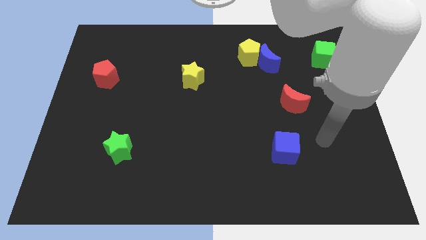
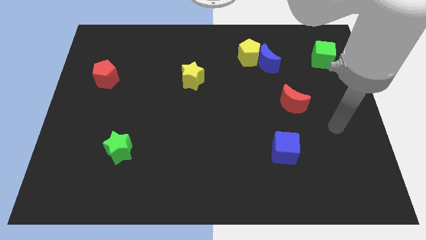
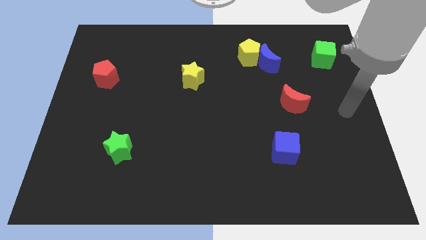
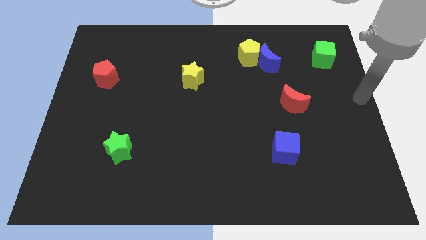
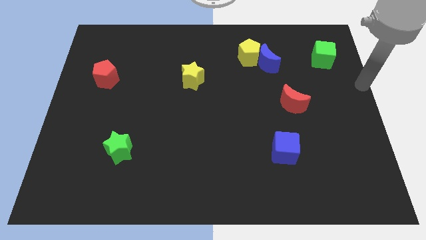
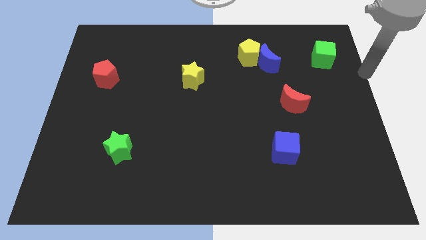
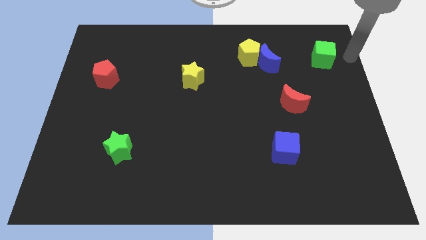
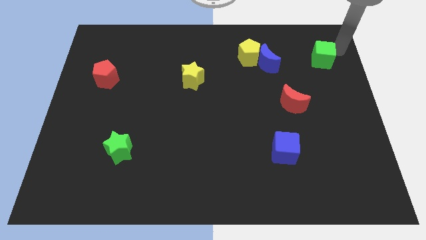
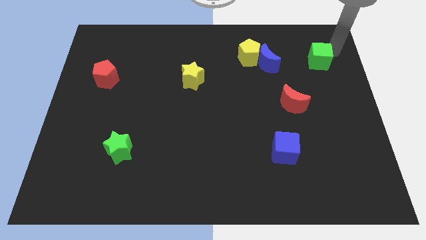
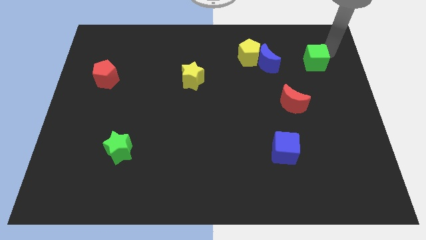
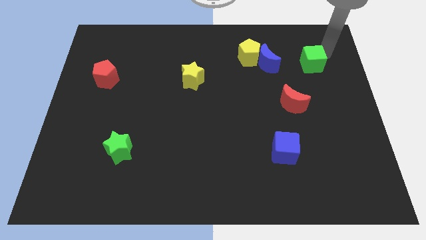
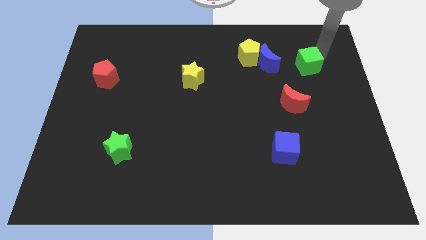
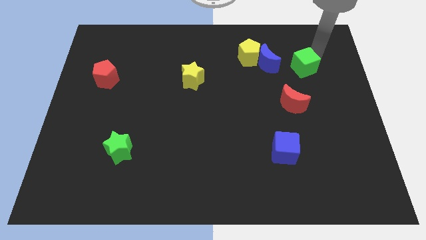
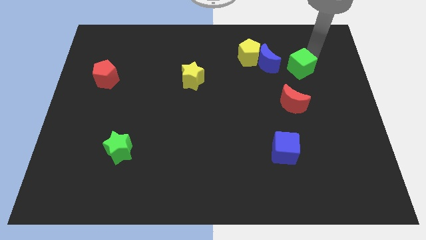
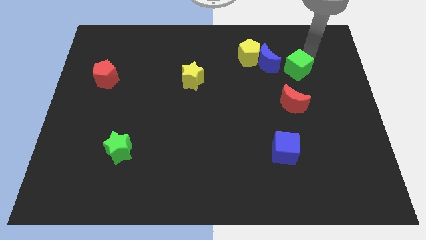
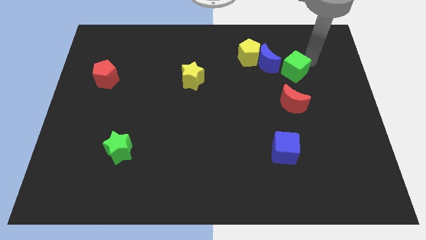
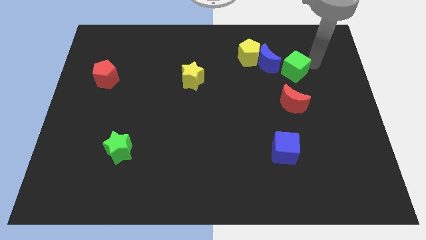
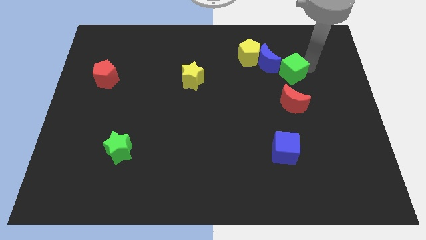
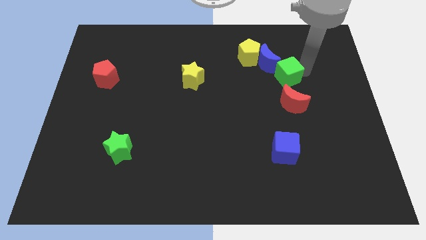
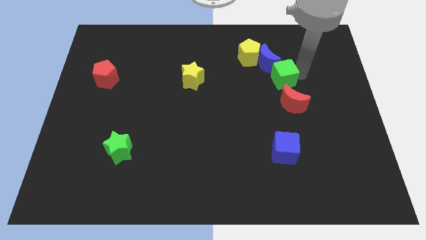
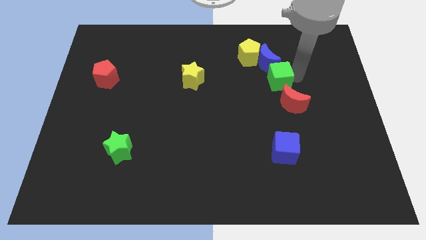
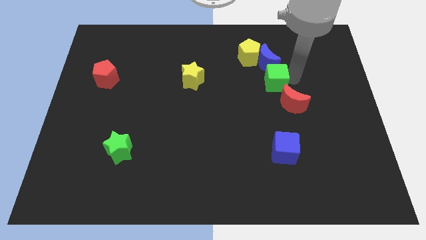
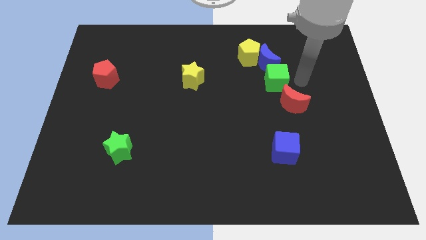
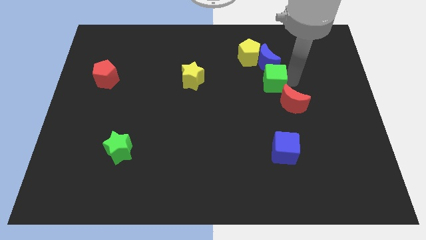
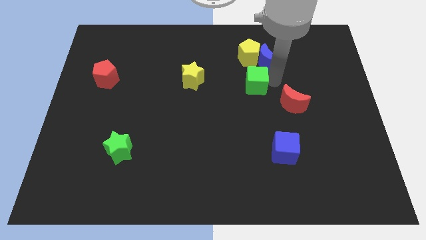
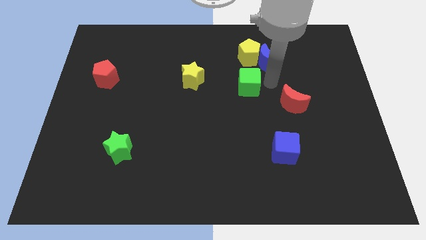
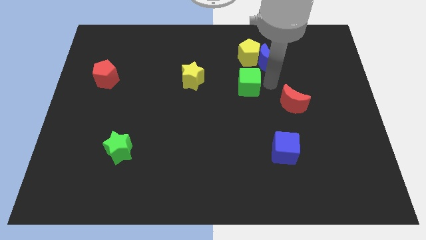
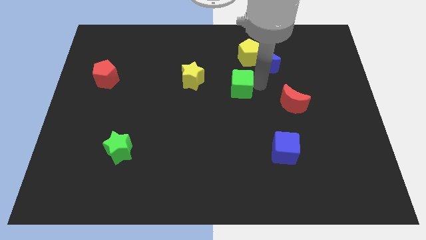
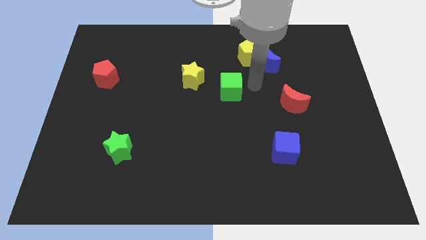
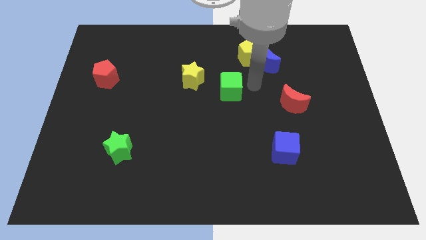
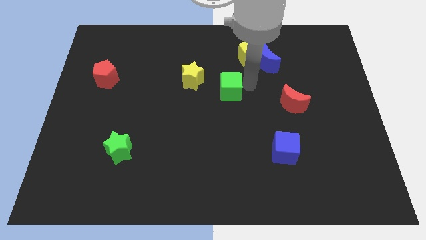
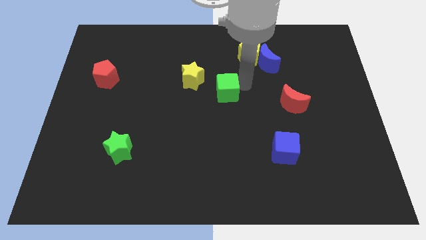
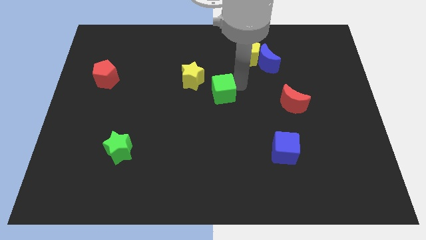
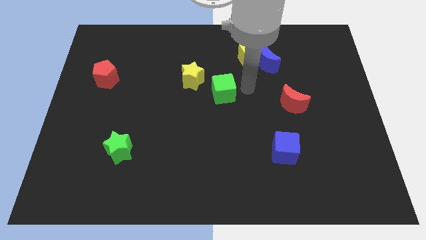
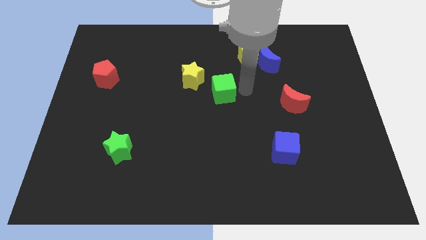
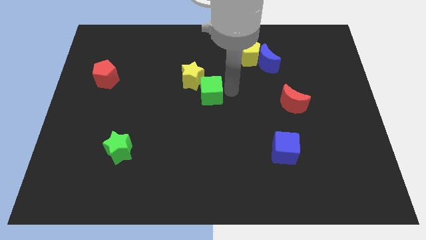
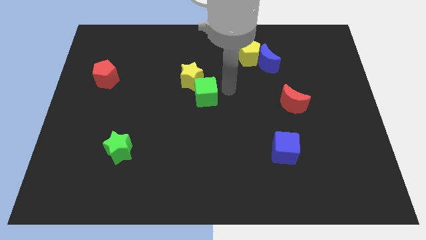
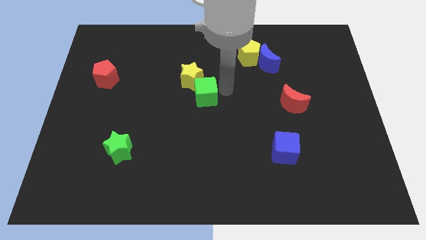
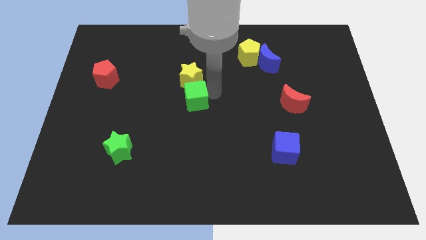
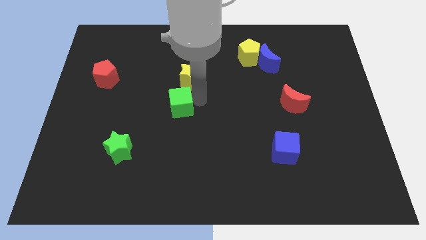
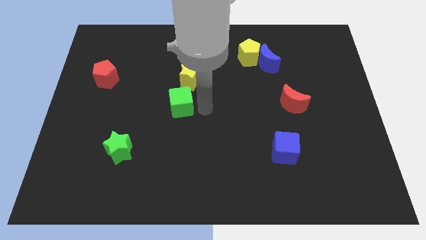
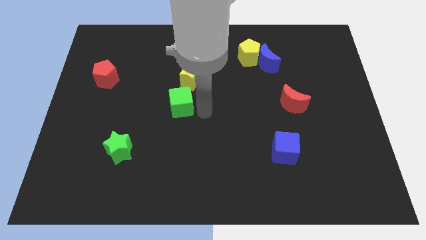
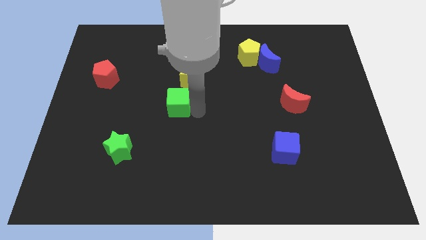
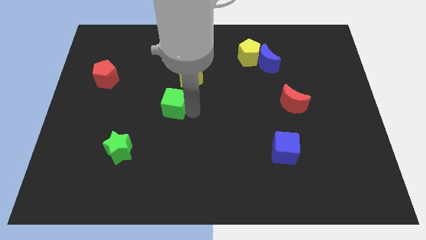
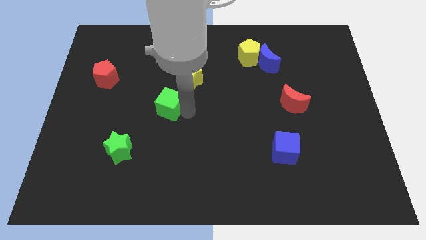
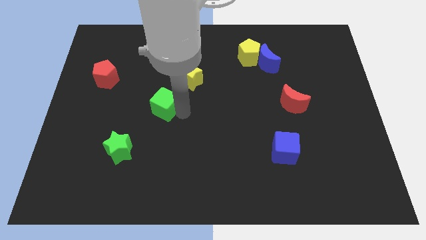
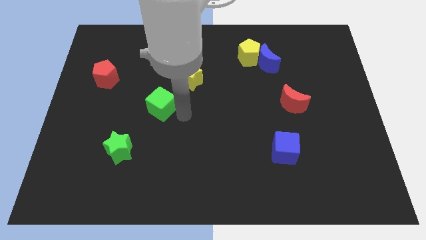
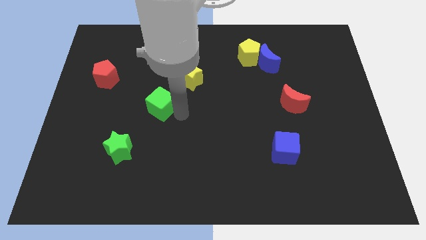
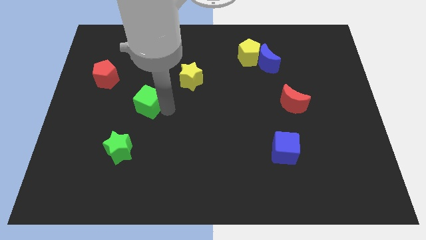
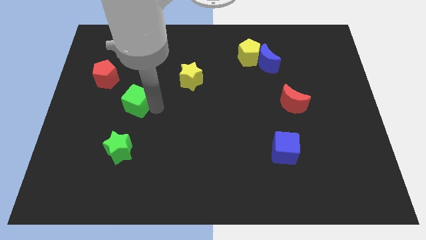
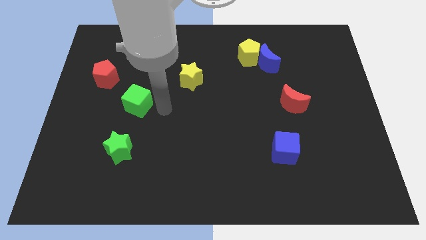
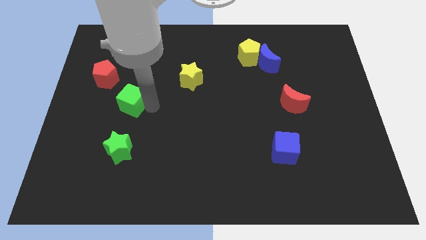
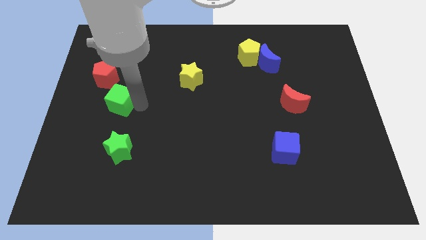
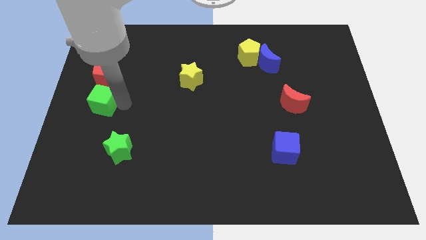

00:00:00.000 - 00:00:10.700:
push the green cube to the left side

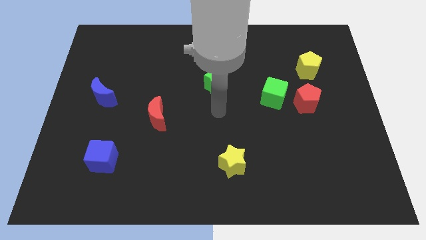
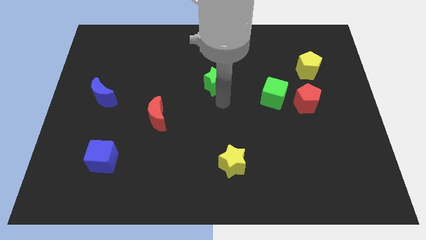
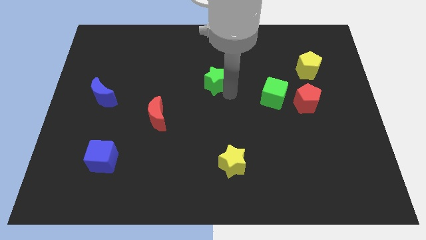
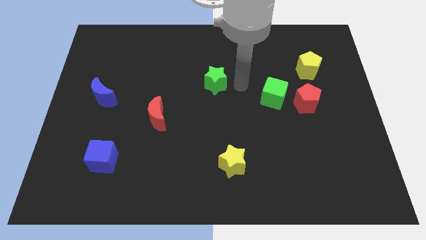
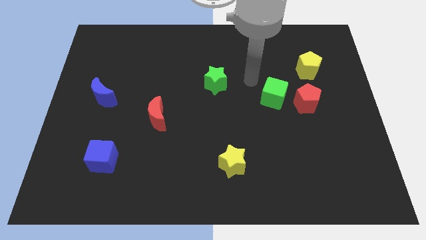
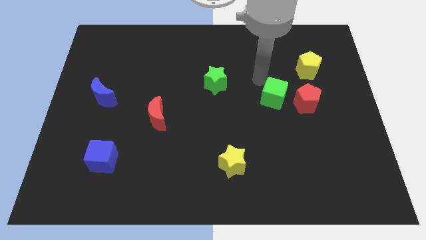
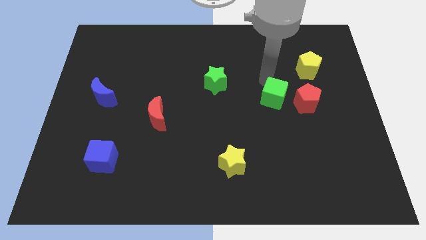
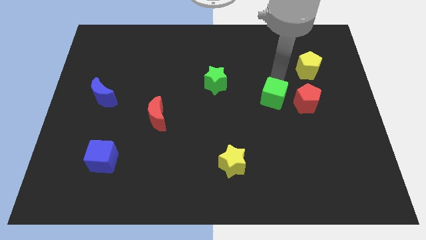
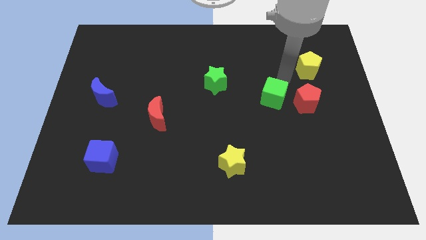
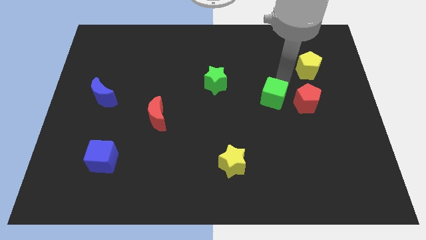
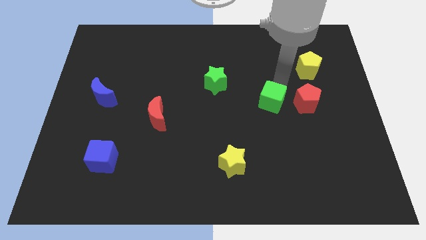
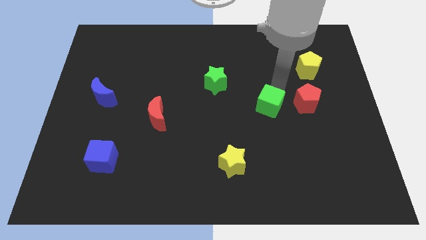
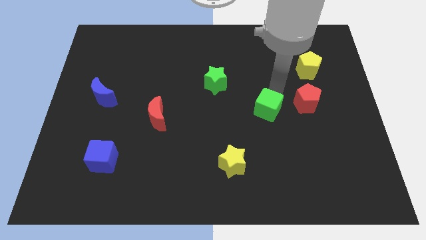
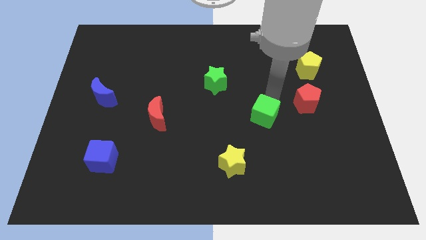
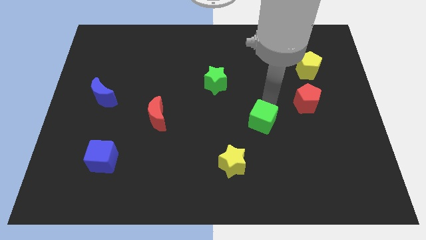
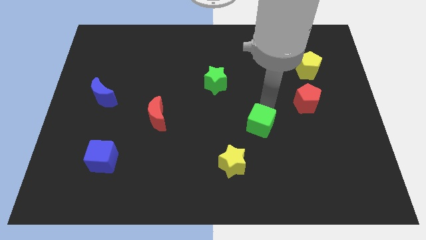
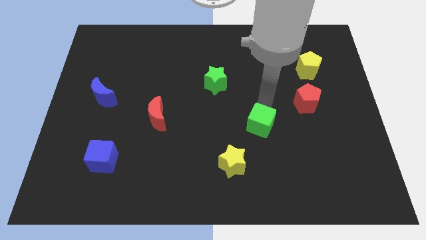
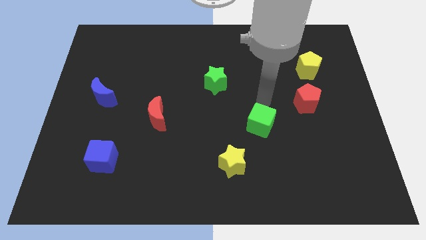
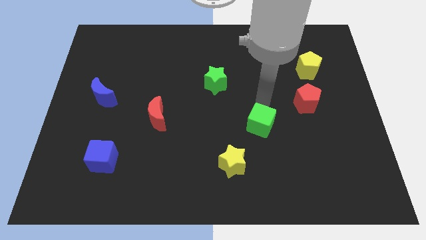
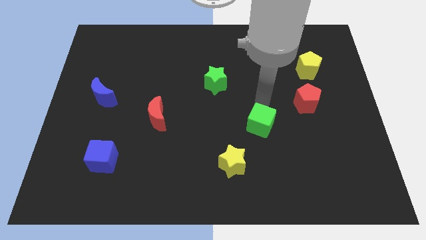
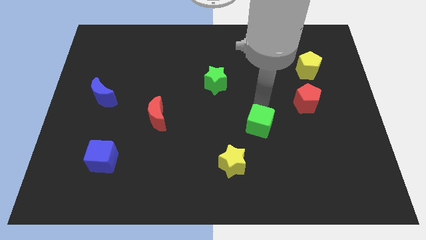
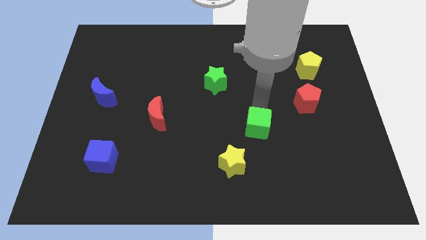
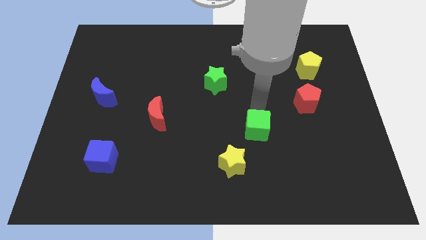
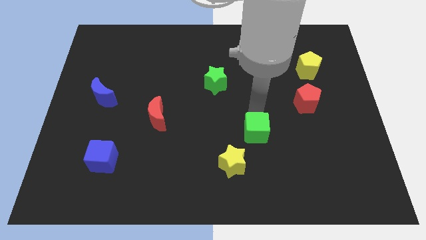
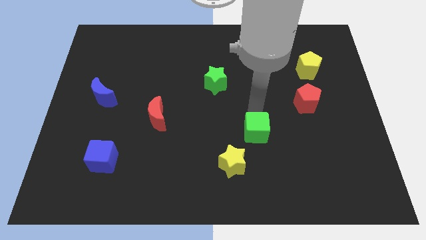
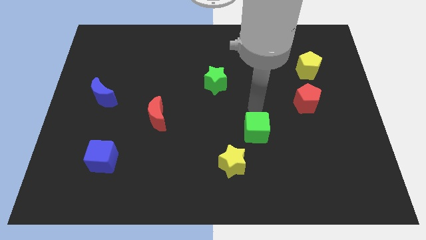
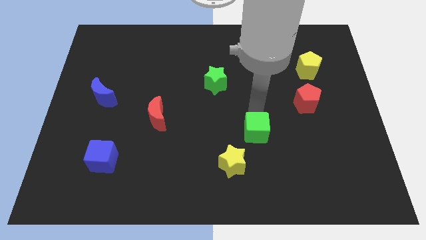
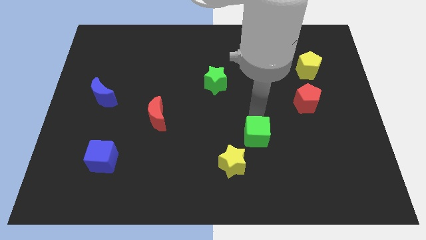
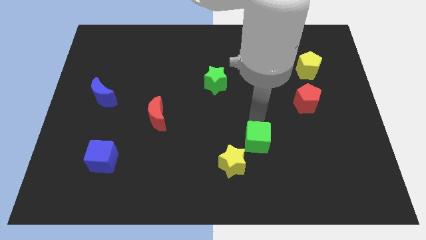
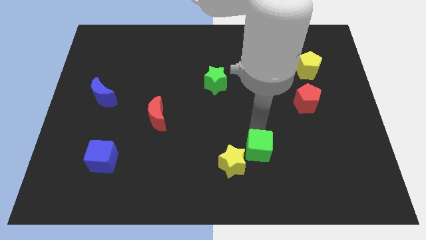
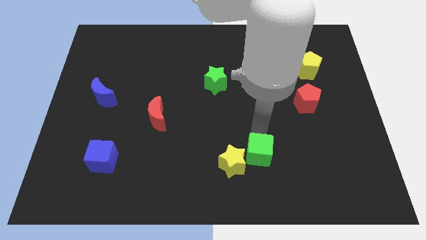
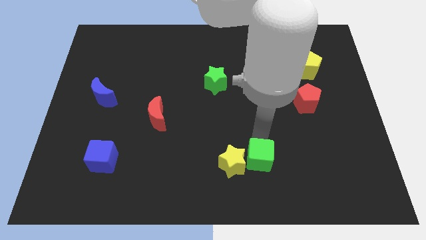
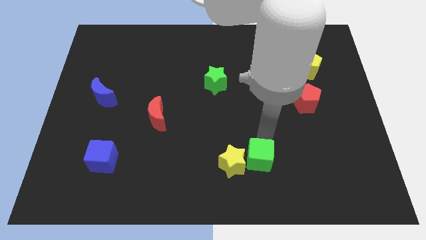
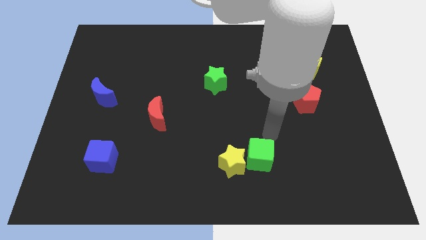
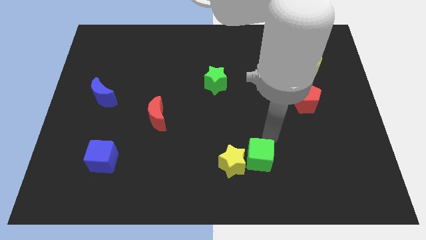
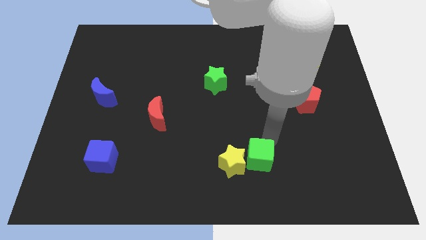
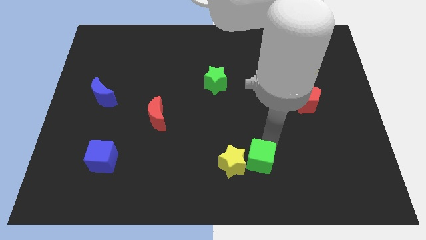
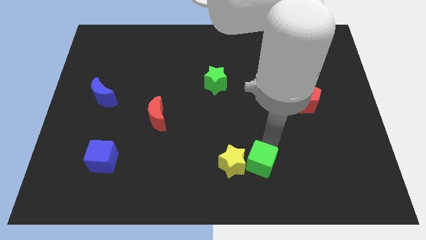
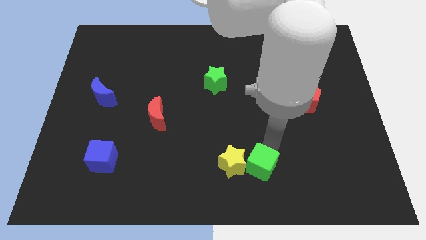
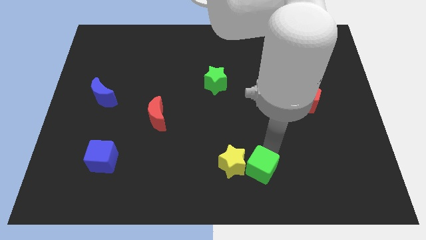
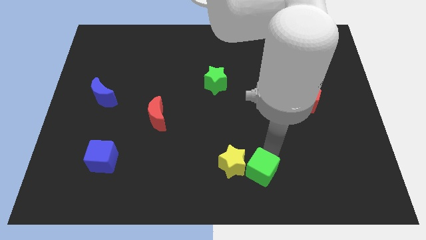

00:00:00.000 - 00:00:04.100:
push the green cube to the bottom
